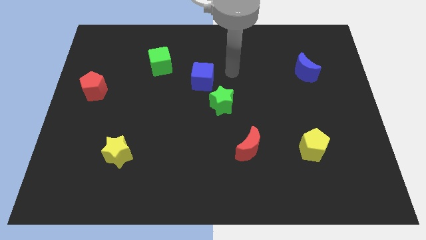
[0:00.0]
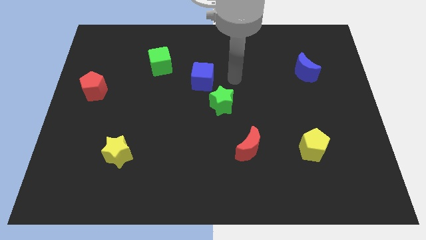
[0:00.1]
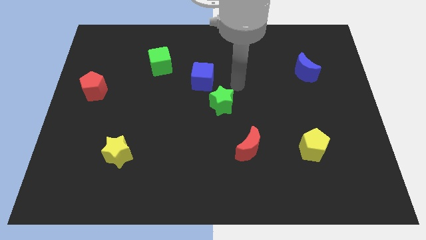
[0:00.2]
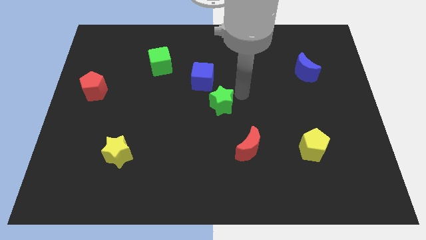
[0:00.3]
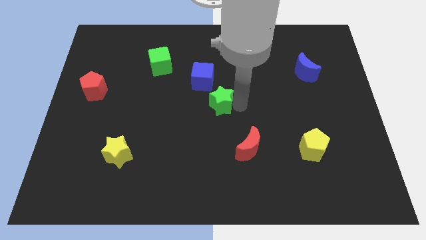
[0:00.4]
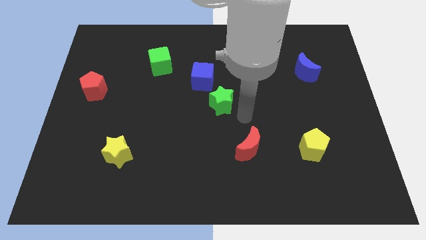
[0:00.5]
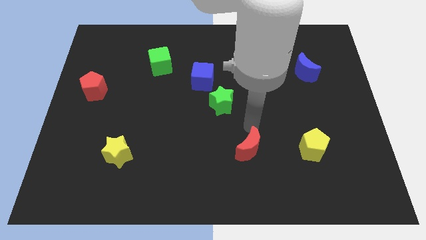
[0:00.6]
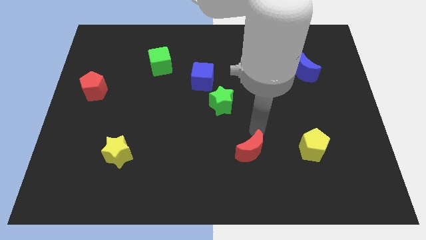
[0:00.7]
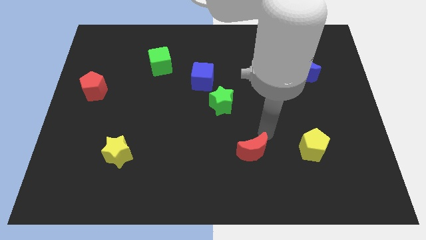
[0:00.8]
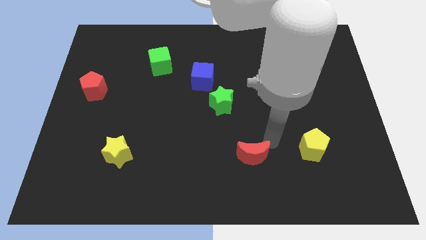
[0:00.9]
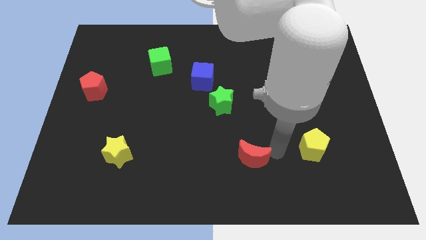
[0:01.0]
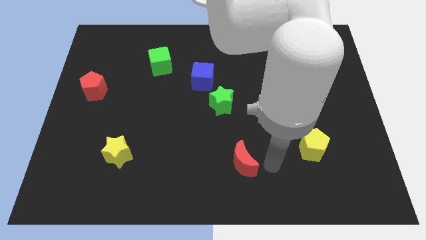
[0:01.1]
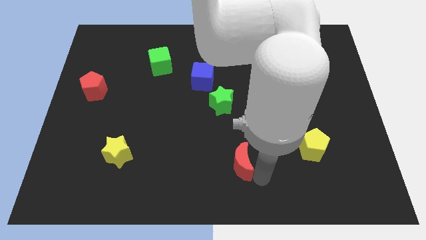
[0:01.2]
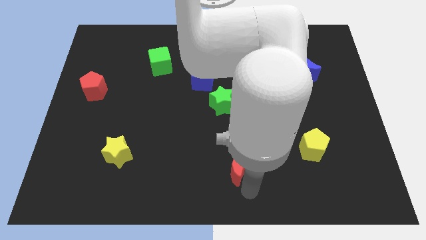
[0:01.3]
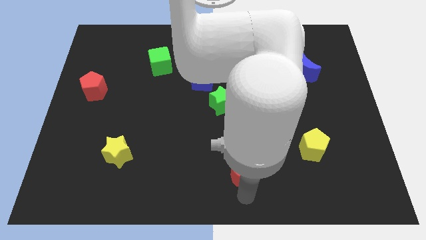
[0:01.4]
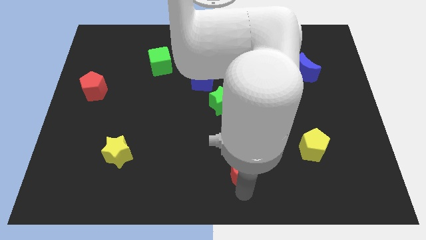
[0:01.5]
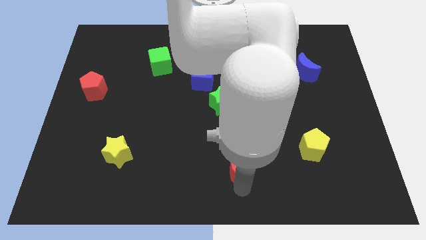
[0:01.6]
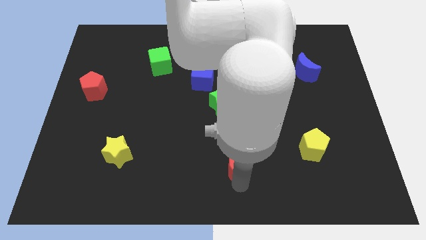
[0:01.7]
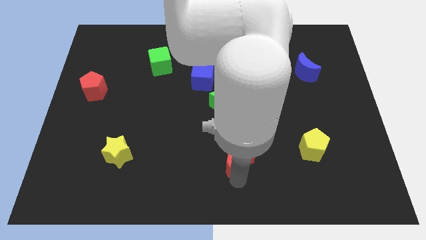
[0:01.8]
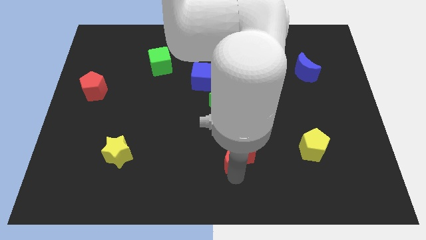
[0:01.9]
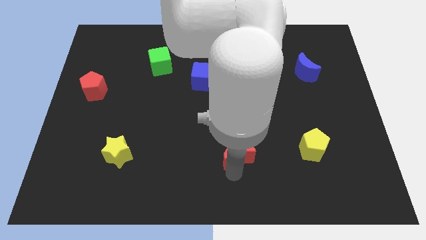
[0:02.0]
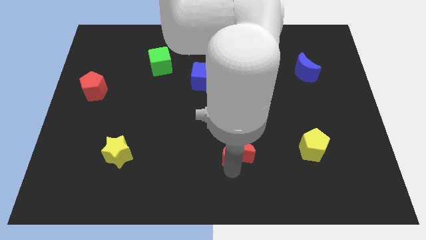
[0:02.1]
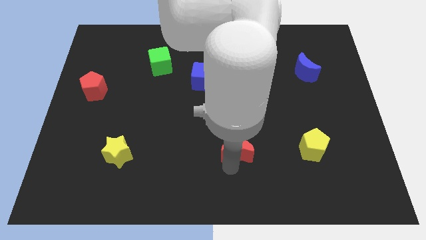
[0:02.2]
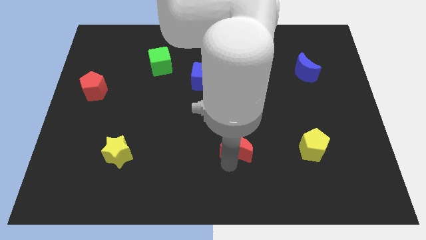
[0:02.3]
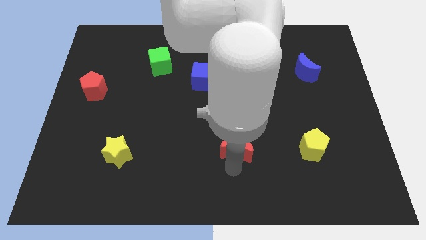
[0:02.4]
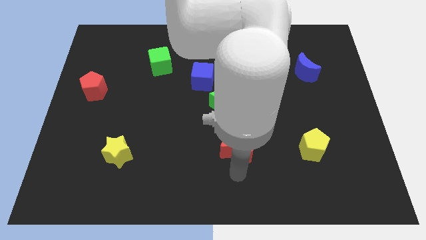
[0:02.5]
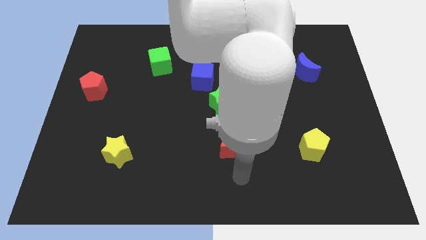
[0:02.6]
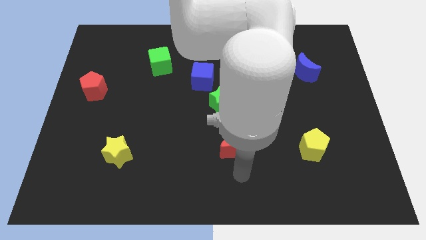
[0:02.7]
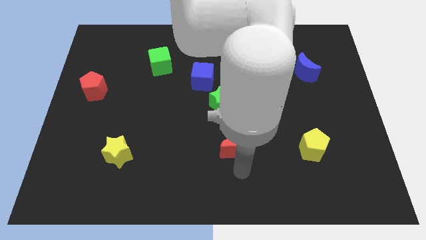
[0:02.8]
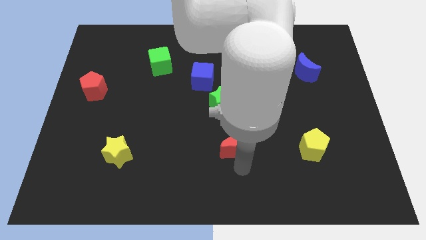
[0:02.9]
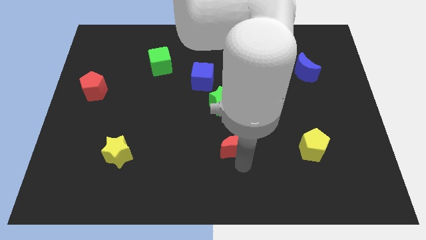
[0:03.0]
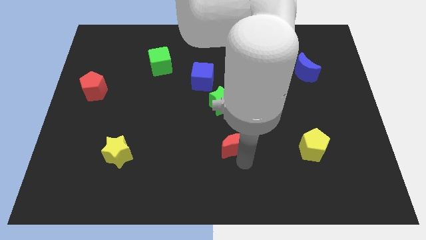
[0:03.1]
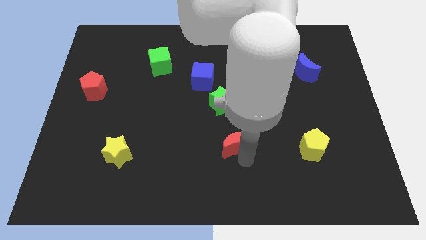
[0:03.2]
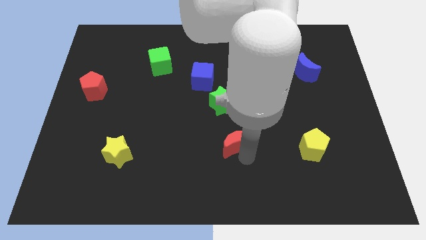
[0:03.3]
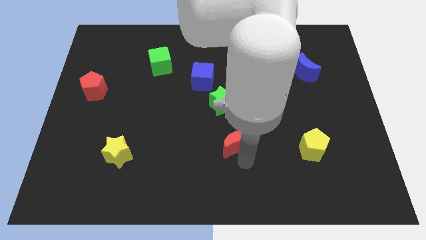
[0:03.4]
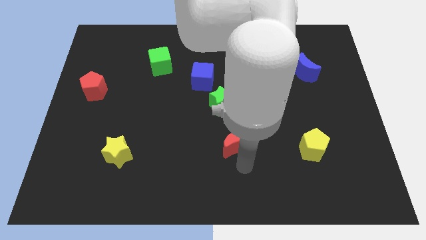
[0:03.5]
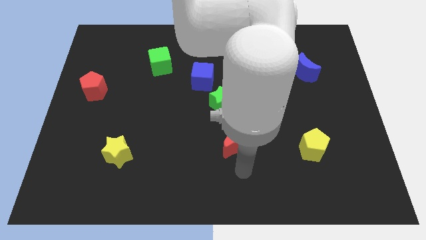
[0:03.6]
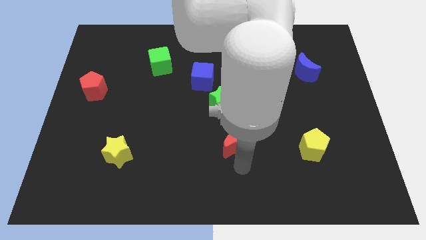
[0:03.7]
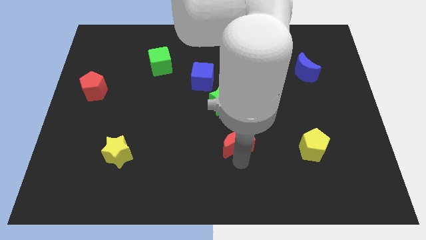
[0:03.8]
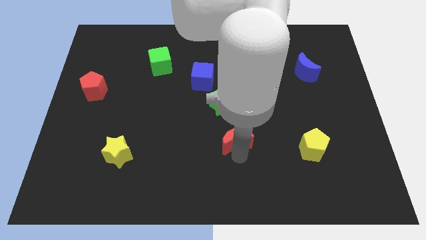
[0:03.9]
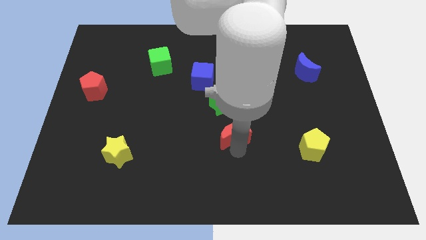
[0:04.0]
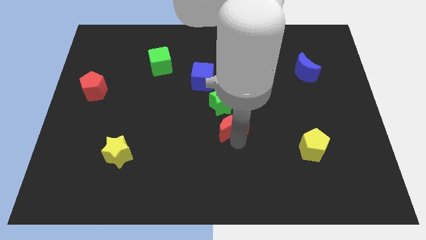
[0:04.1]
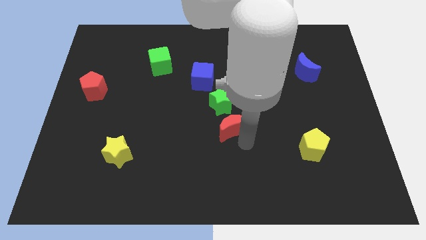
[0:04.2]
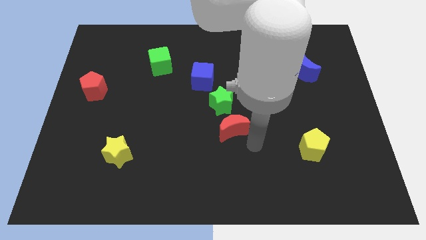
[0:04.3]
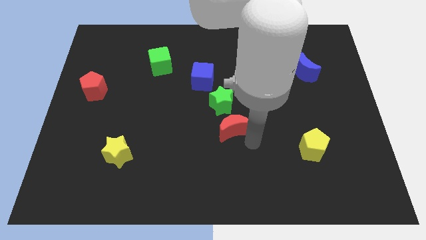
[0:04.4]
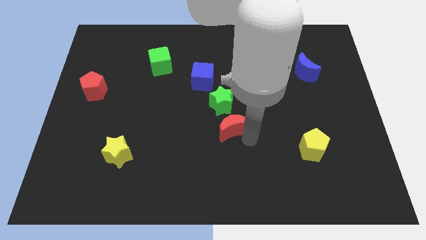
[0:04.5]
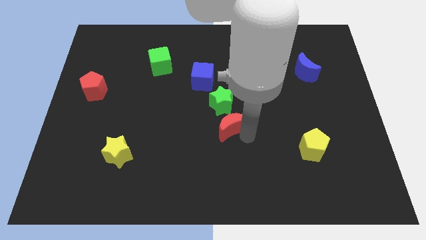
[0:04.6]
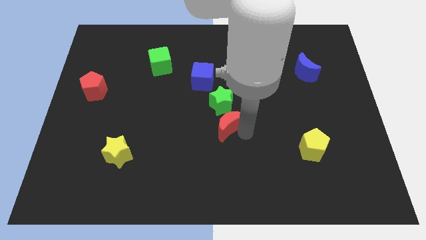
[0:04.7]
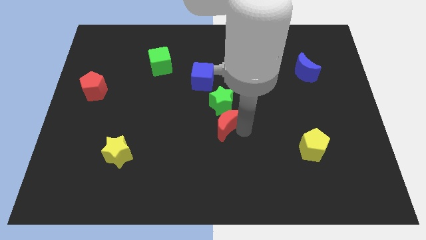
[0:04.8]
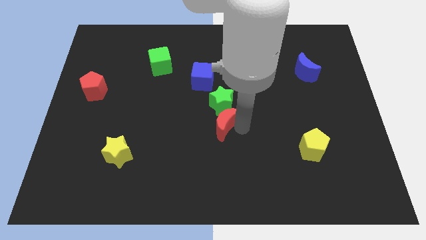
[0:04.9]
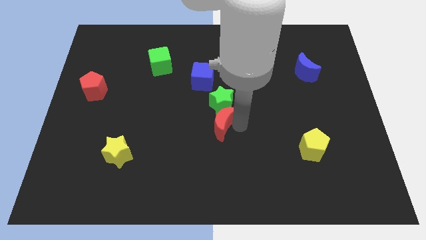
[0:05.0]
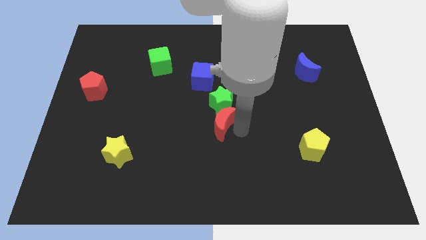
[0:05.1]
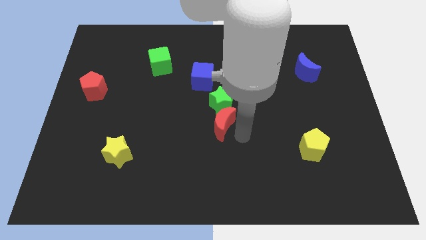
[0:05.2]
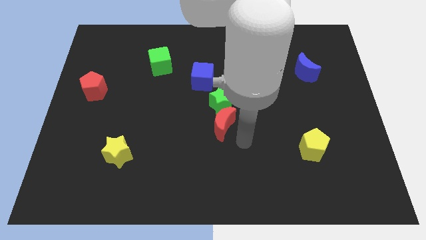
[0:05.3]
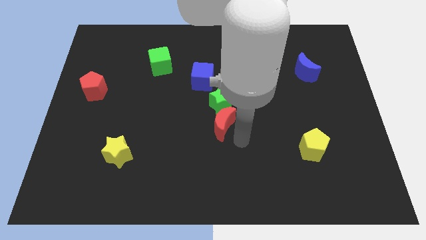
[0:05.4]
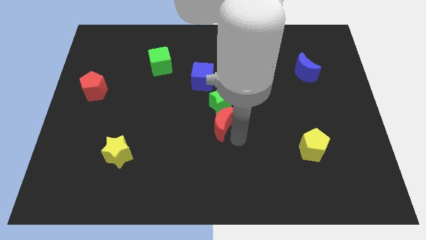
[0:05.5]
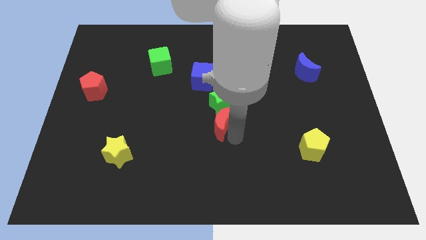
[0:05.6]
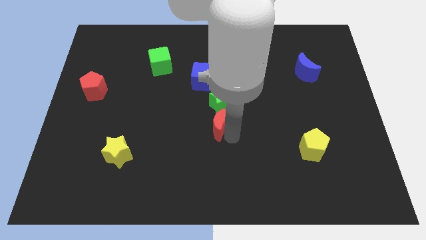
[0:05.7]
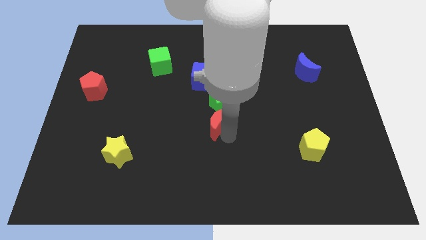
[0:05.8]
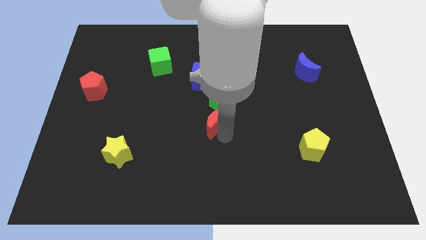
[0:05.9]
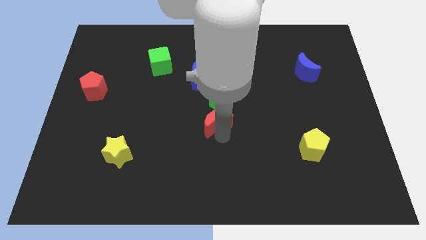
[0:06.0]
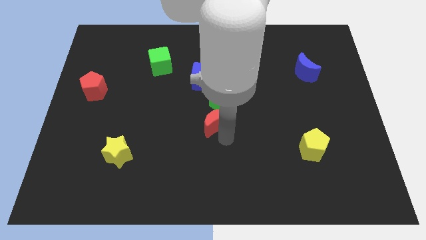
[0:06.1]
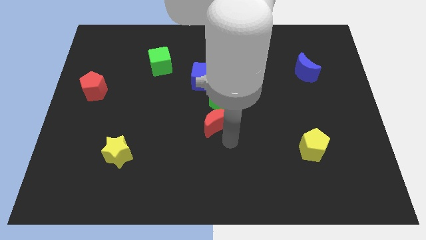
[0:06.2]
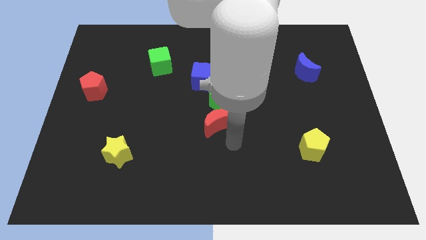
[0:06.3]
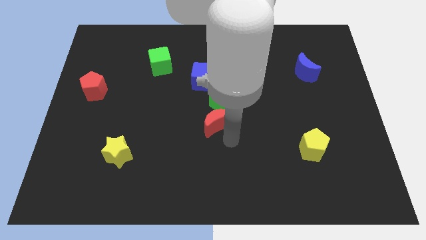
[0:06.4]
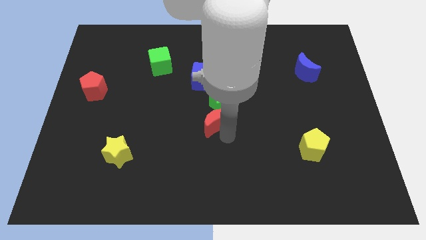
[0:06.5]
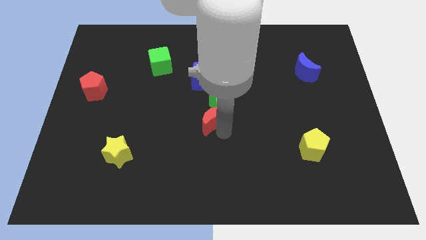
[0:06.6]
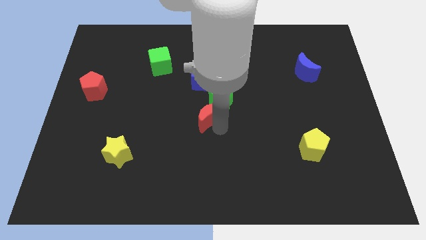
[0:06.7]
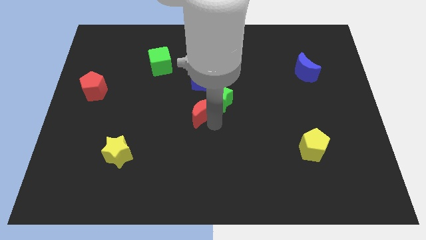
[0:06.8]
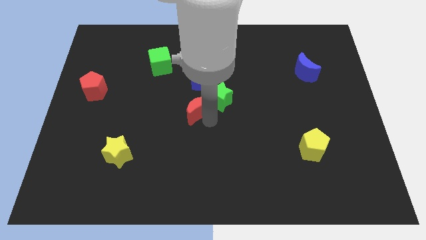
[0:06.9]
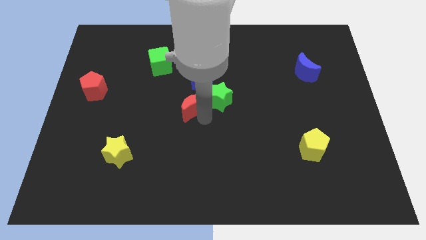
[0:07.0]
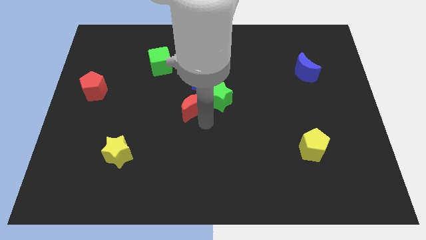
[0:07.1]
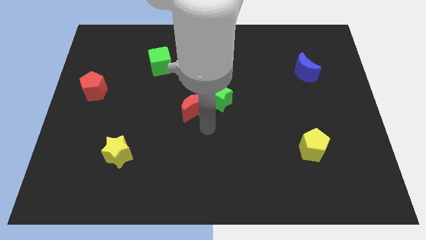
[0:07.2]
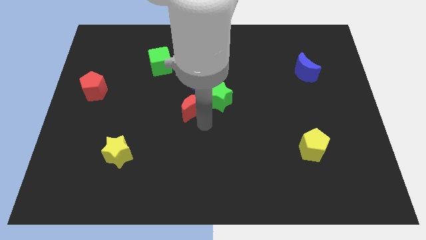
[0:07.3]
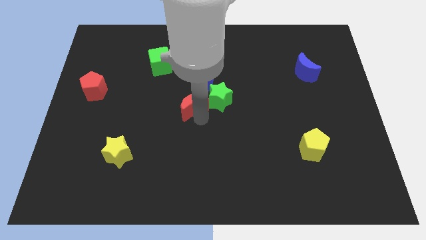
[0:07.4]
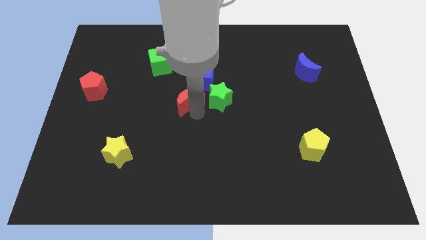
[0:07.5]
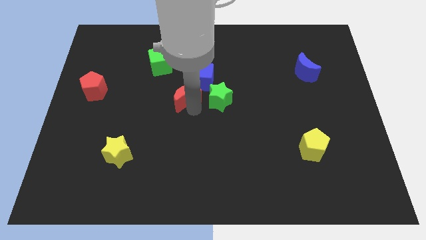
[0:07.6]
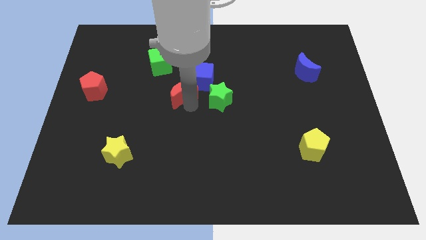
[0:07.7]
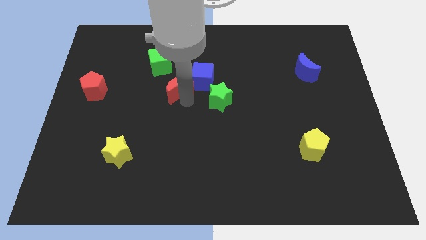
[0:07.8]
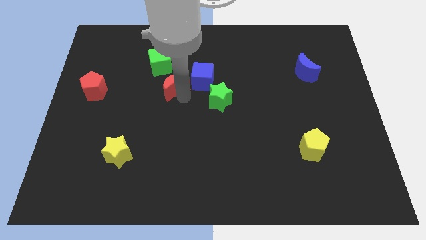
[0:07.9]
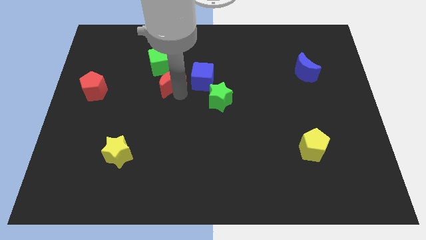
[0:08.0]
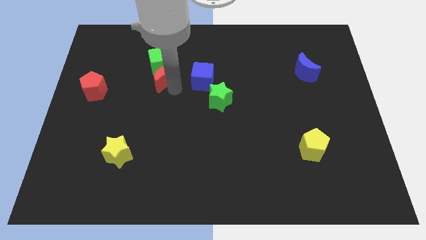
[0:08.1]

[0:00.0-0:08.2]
put the red moon close to the green cube
